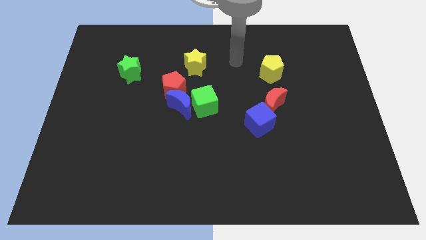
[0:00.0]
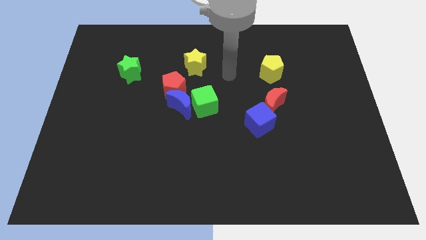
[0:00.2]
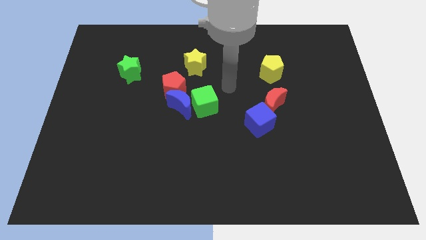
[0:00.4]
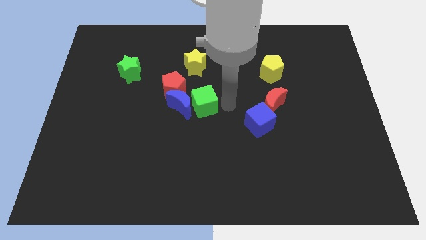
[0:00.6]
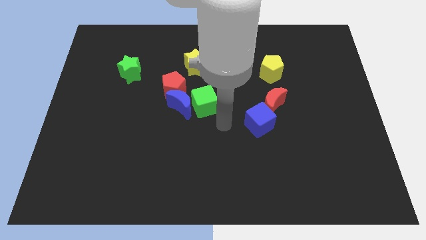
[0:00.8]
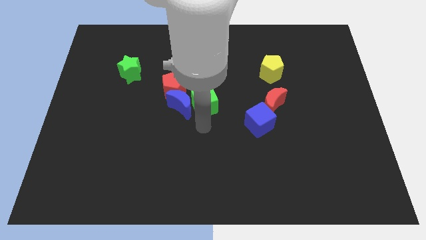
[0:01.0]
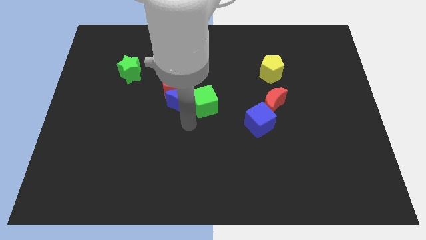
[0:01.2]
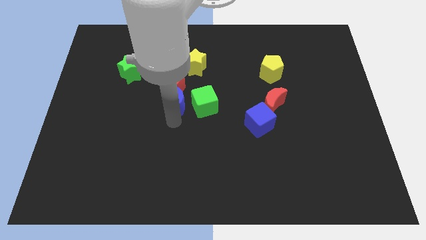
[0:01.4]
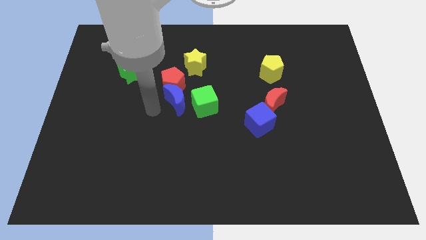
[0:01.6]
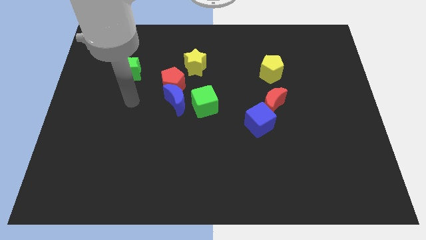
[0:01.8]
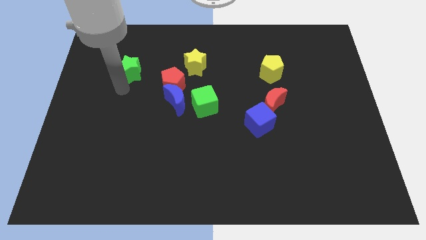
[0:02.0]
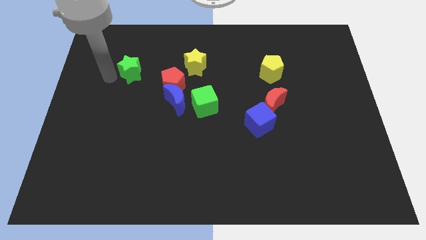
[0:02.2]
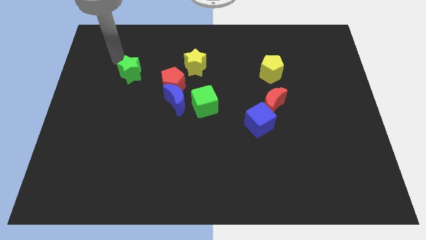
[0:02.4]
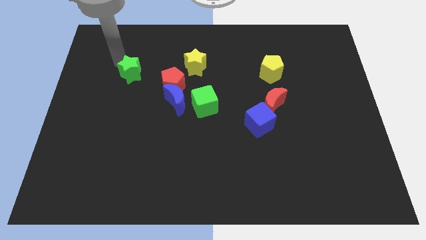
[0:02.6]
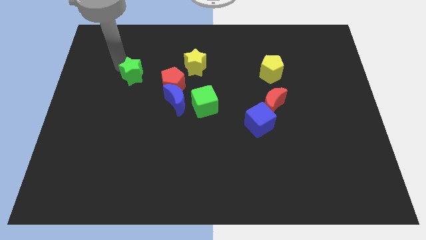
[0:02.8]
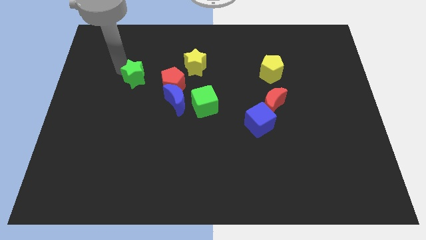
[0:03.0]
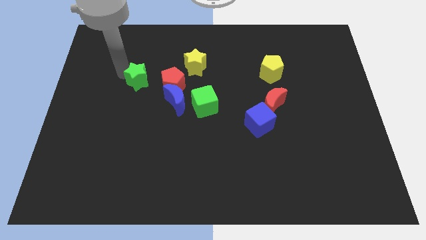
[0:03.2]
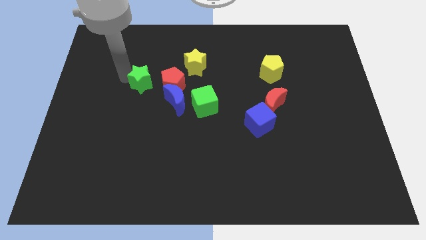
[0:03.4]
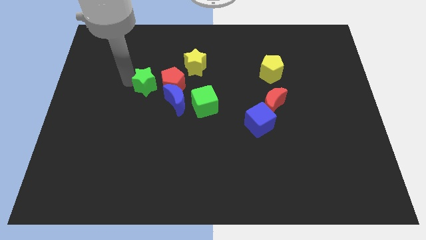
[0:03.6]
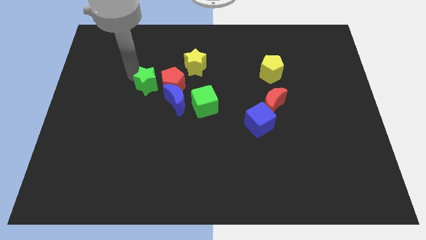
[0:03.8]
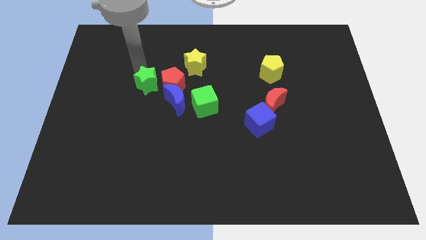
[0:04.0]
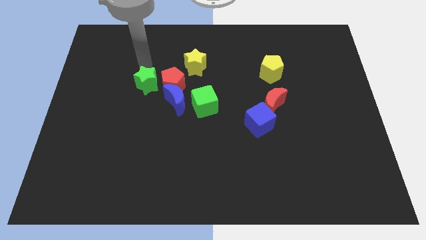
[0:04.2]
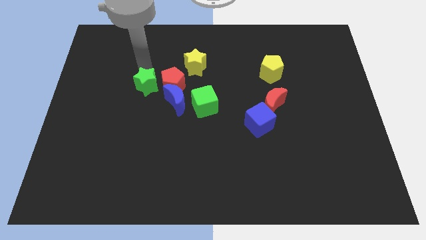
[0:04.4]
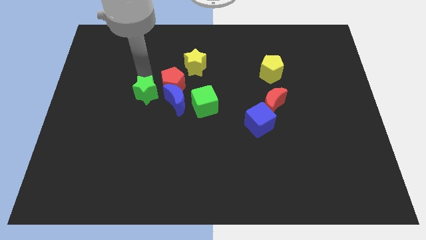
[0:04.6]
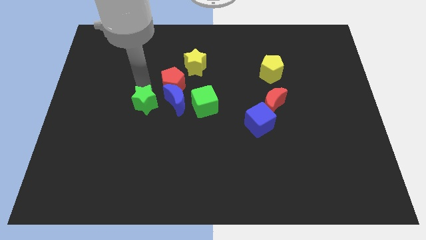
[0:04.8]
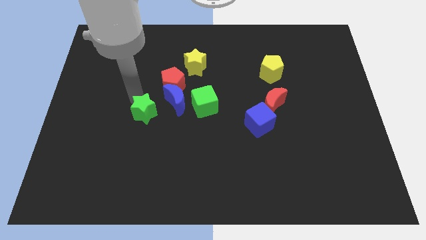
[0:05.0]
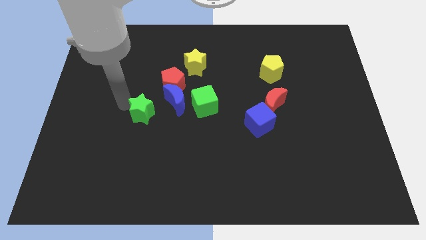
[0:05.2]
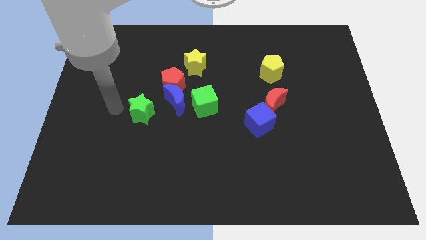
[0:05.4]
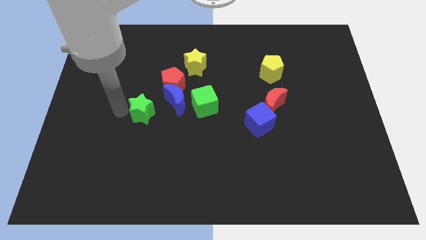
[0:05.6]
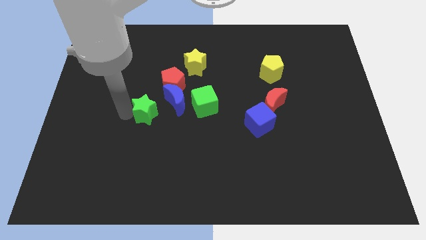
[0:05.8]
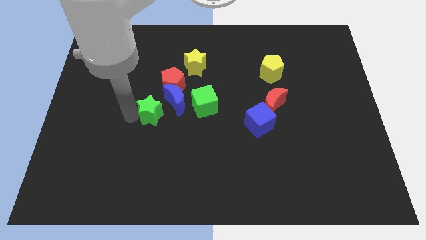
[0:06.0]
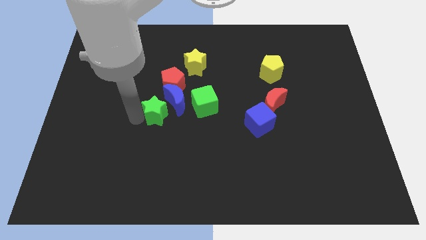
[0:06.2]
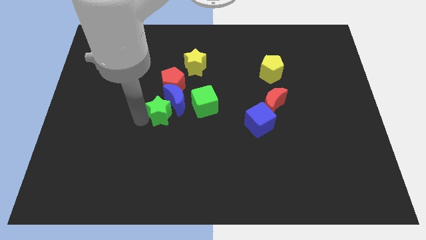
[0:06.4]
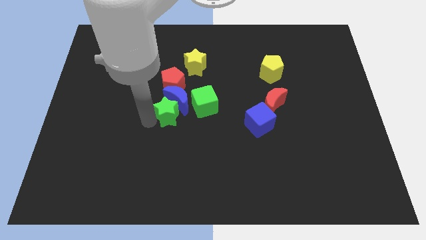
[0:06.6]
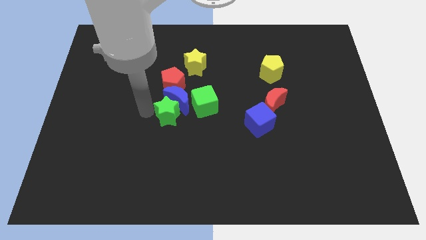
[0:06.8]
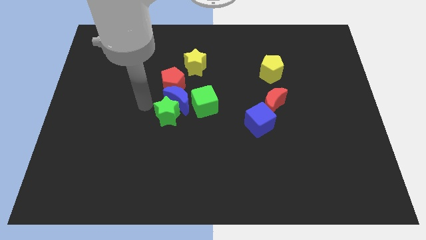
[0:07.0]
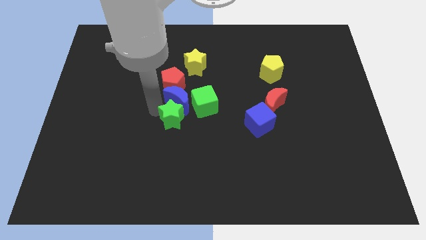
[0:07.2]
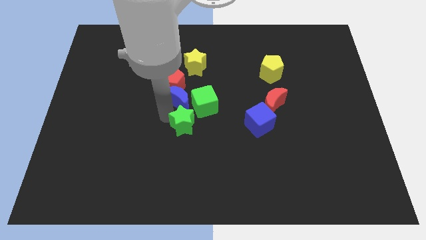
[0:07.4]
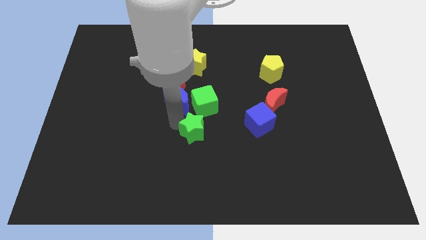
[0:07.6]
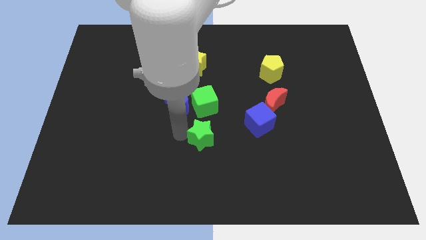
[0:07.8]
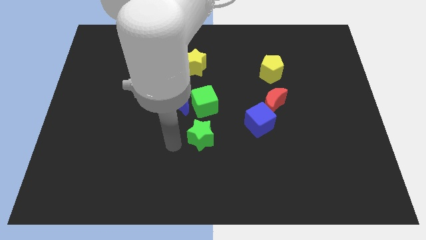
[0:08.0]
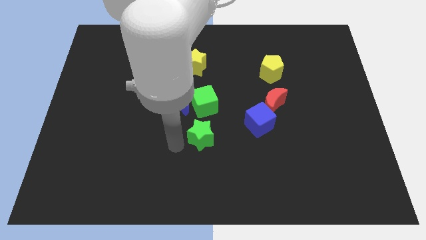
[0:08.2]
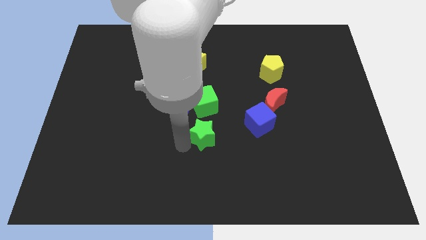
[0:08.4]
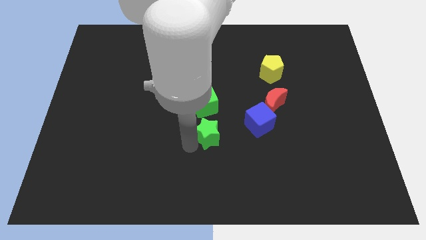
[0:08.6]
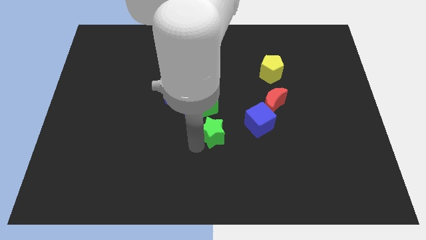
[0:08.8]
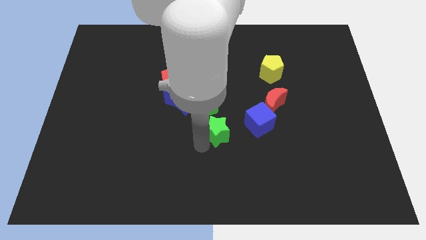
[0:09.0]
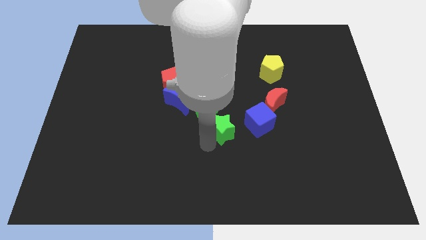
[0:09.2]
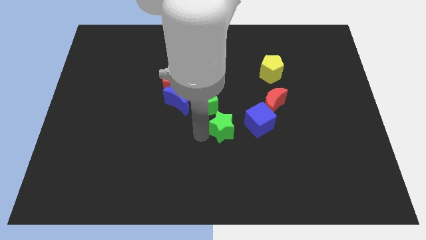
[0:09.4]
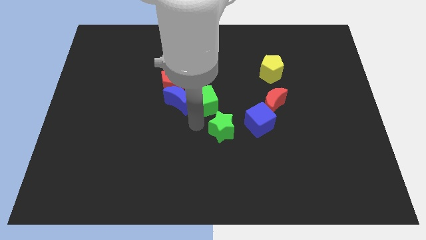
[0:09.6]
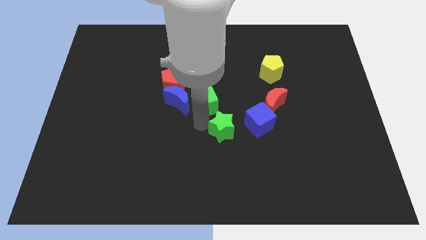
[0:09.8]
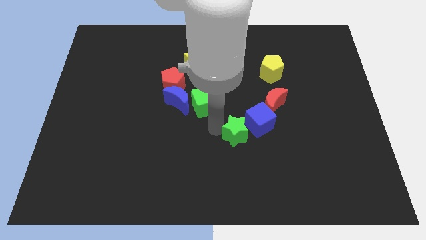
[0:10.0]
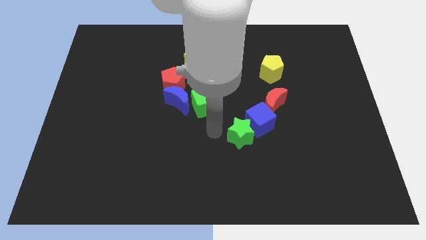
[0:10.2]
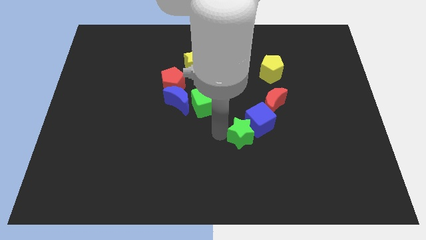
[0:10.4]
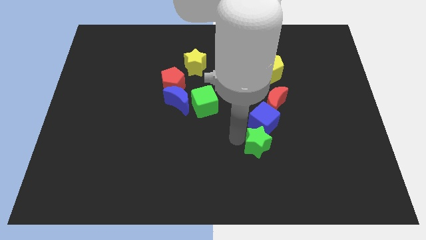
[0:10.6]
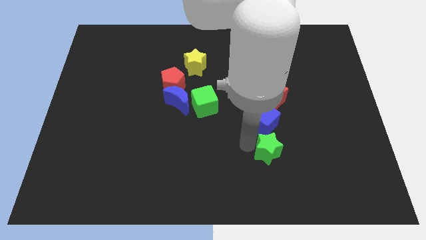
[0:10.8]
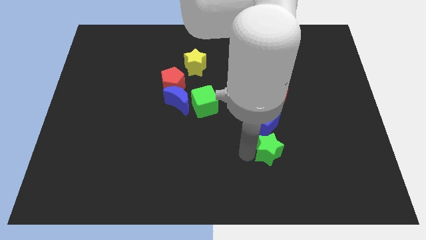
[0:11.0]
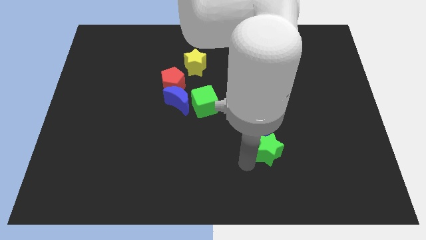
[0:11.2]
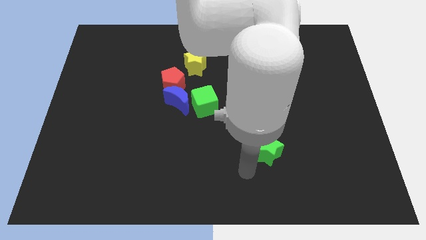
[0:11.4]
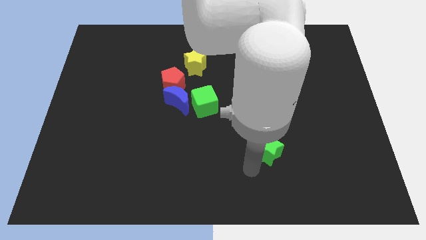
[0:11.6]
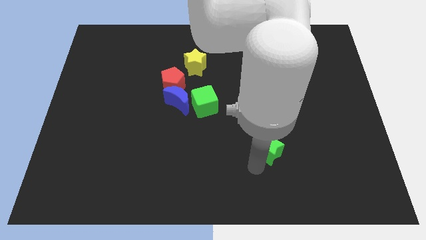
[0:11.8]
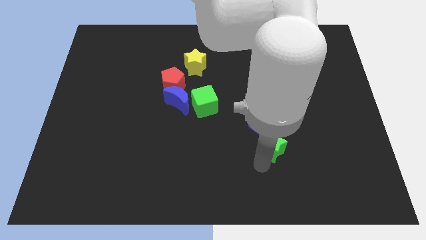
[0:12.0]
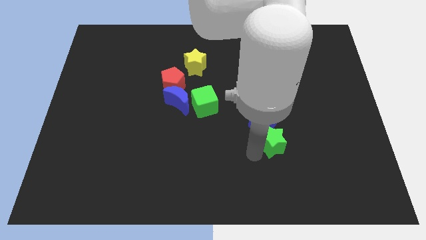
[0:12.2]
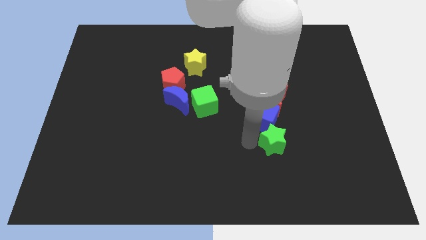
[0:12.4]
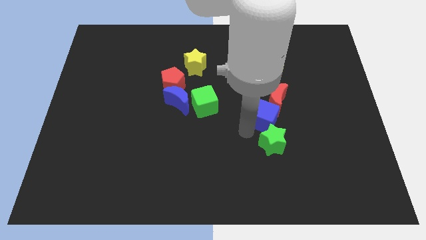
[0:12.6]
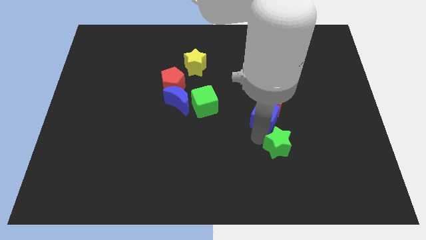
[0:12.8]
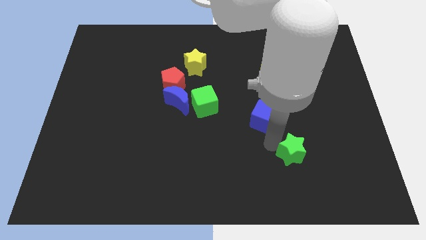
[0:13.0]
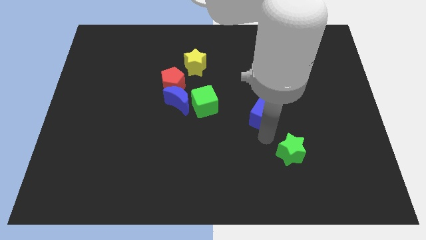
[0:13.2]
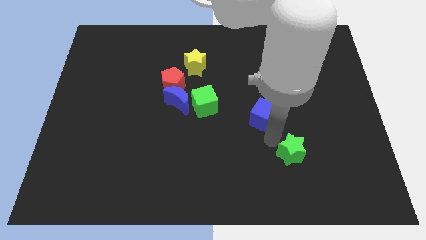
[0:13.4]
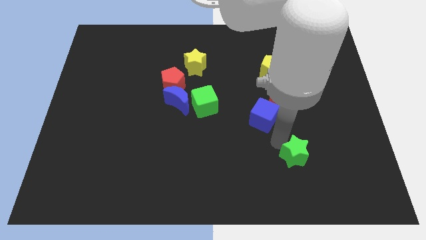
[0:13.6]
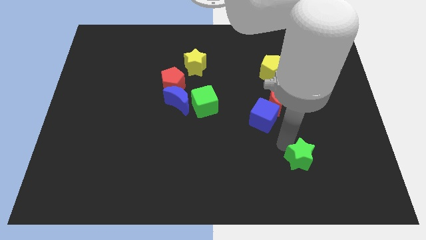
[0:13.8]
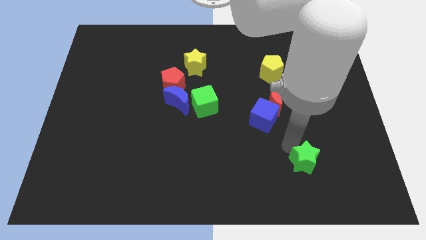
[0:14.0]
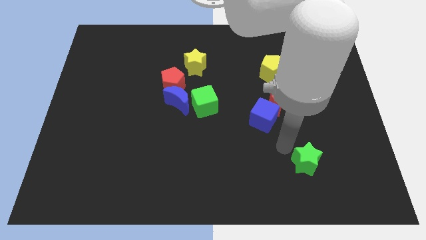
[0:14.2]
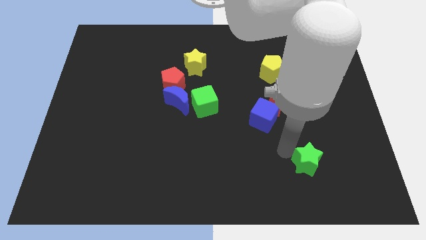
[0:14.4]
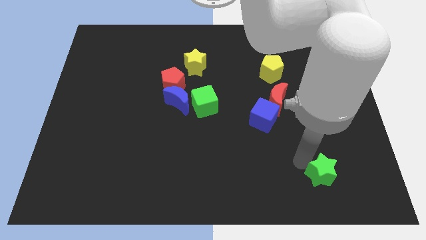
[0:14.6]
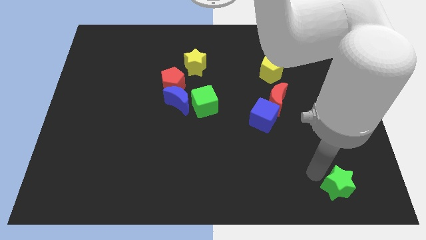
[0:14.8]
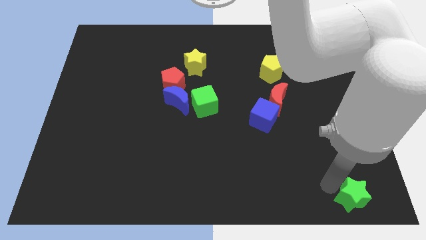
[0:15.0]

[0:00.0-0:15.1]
push the green star to the lower right corner

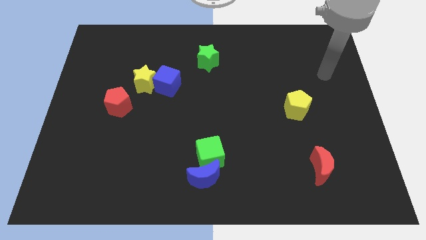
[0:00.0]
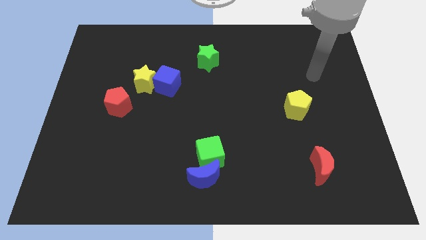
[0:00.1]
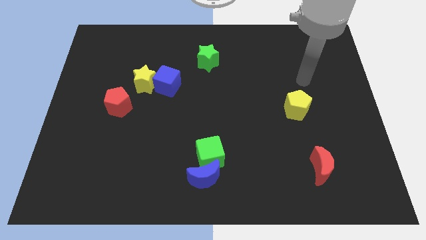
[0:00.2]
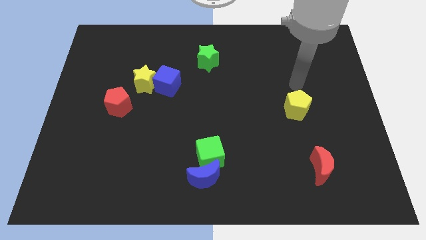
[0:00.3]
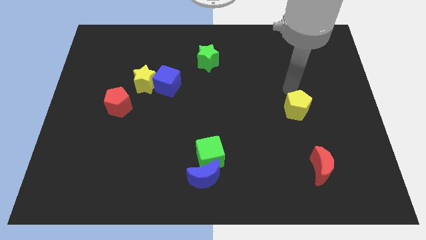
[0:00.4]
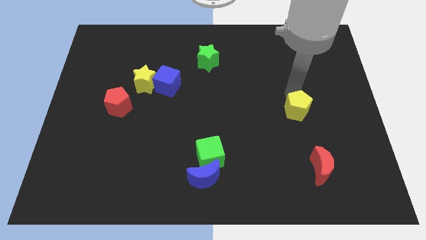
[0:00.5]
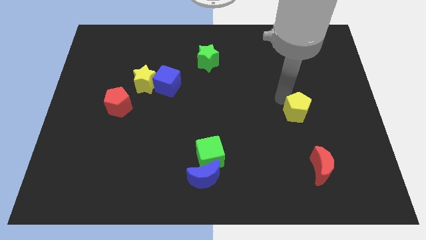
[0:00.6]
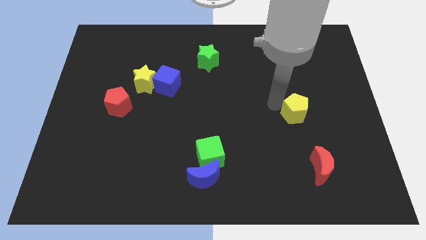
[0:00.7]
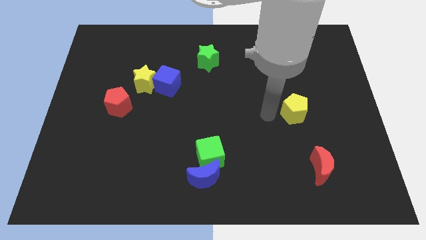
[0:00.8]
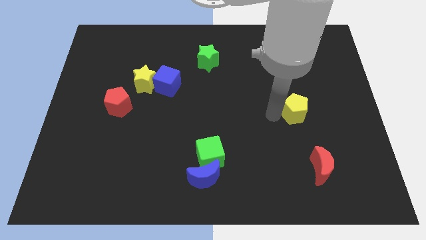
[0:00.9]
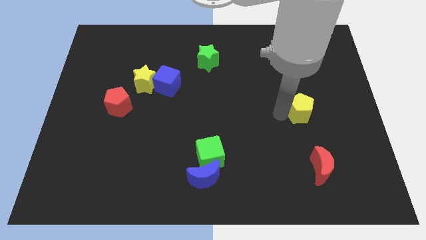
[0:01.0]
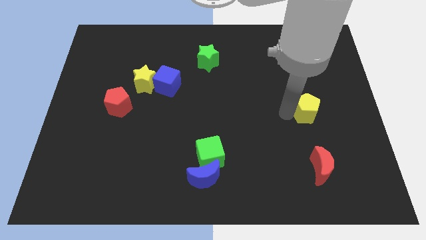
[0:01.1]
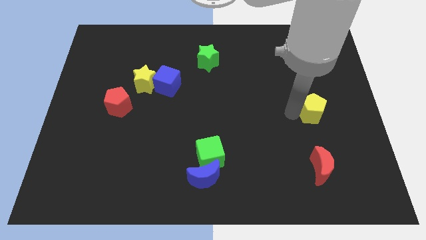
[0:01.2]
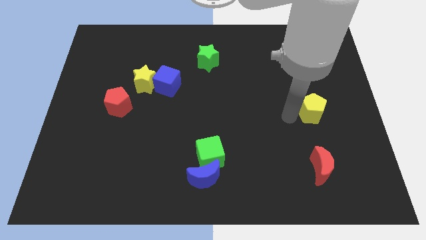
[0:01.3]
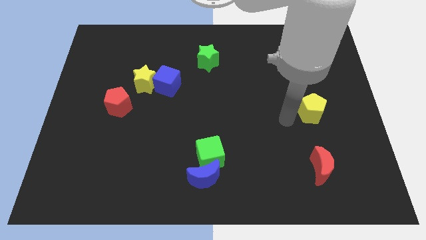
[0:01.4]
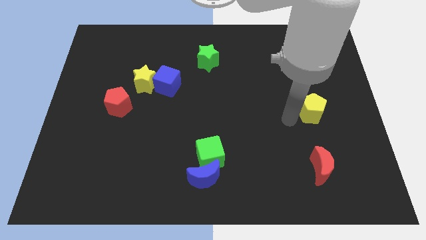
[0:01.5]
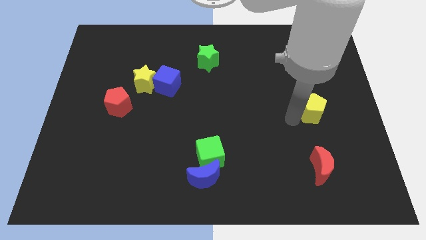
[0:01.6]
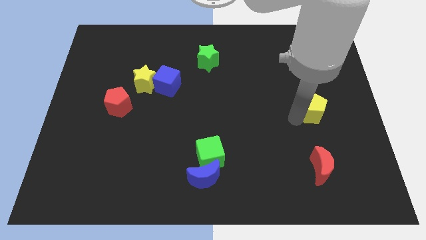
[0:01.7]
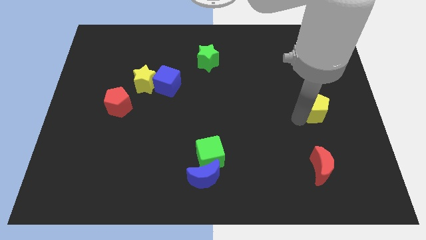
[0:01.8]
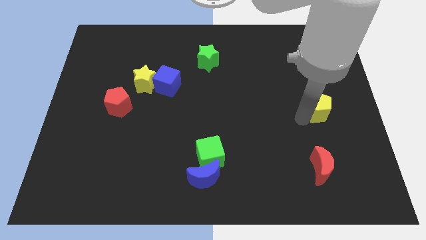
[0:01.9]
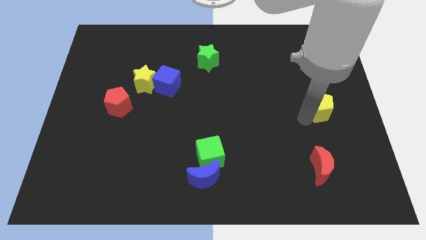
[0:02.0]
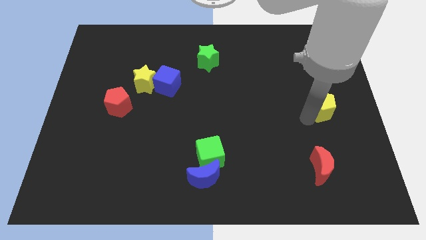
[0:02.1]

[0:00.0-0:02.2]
push the yellow pentagon to the right side
